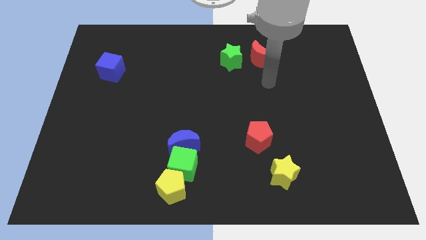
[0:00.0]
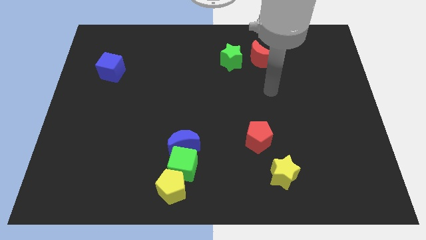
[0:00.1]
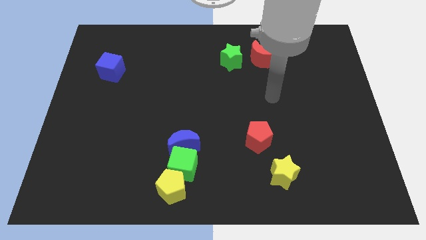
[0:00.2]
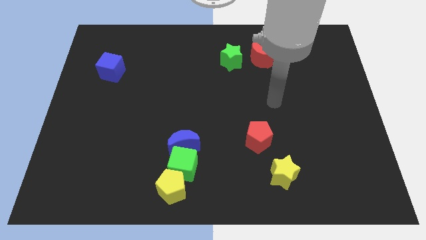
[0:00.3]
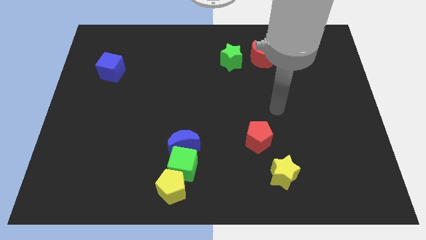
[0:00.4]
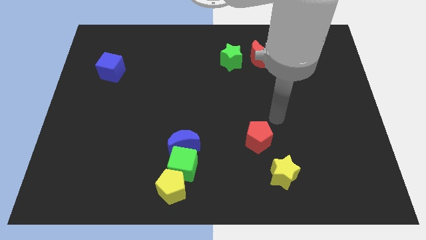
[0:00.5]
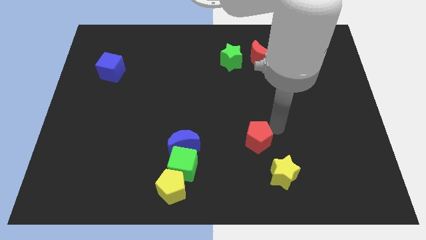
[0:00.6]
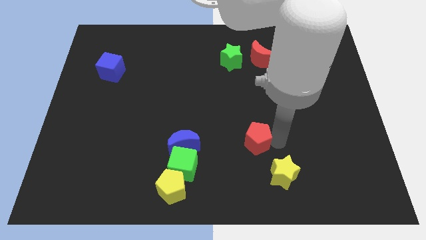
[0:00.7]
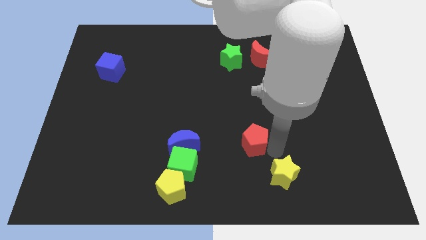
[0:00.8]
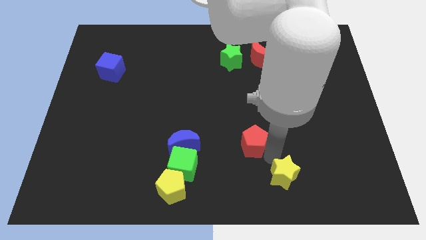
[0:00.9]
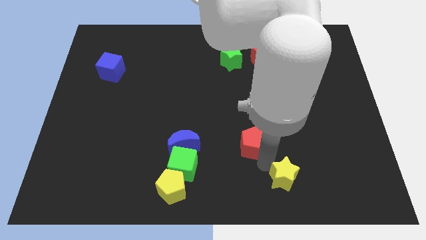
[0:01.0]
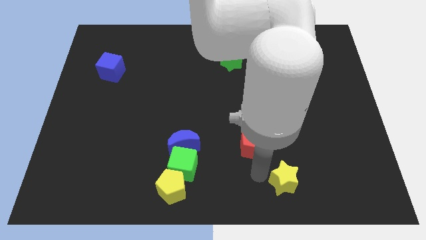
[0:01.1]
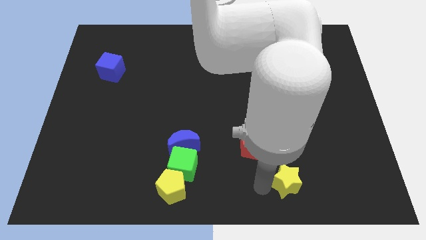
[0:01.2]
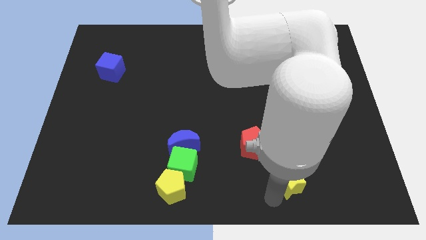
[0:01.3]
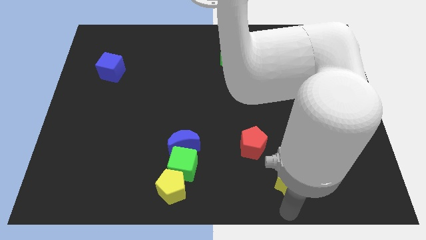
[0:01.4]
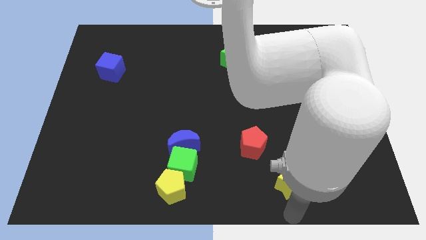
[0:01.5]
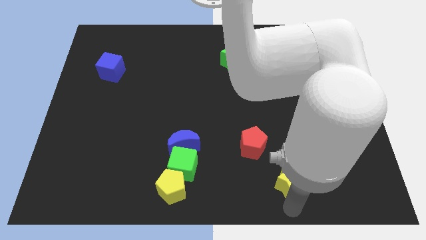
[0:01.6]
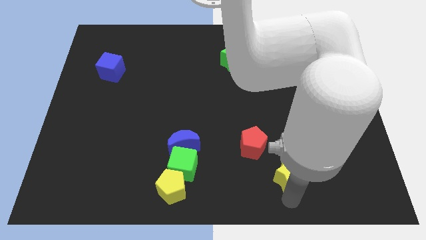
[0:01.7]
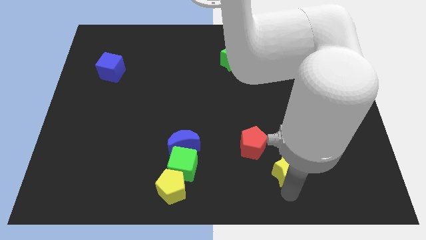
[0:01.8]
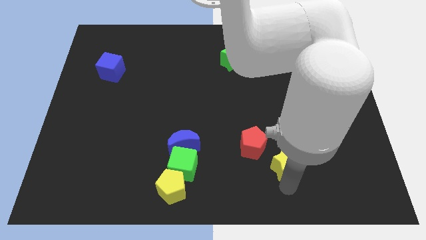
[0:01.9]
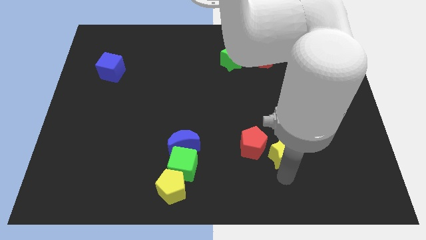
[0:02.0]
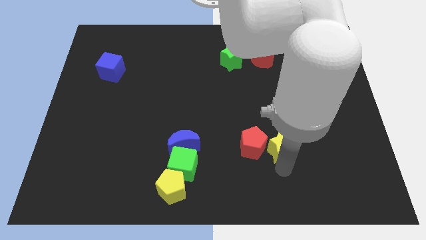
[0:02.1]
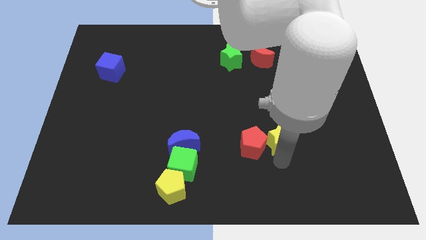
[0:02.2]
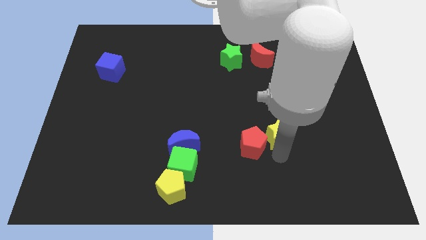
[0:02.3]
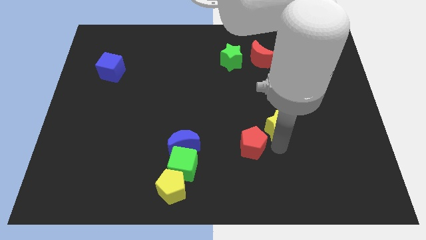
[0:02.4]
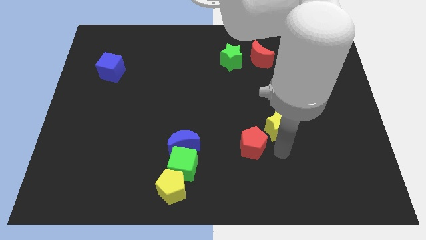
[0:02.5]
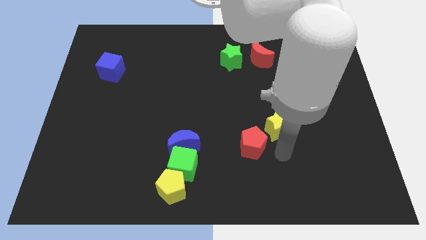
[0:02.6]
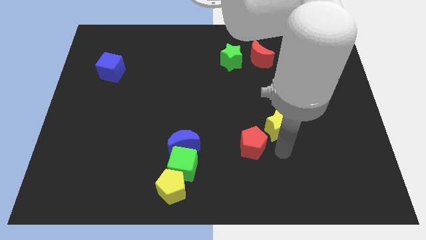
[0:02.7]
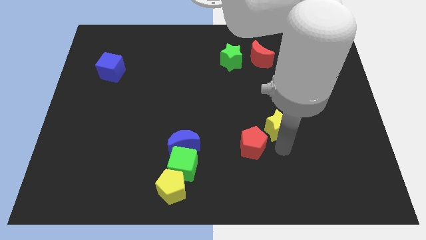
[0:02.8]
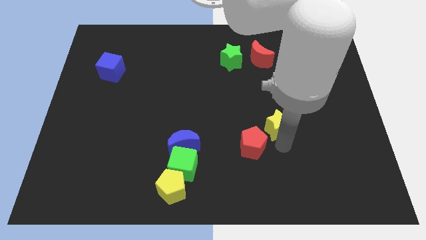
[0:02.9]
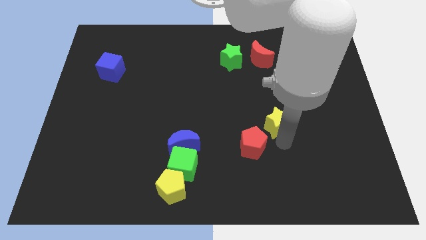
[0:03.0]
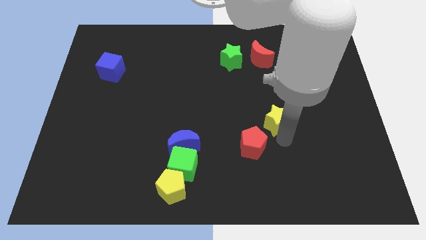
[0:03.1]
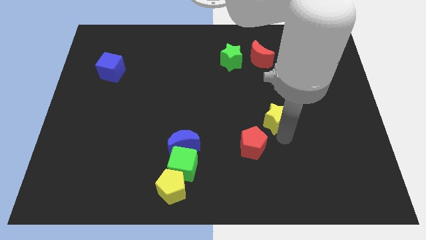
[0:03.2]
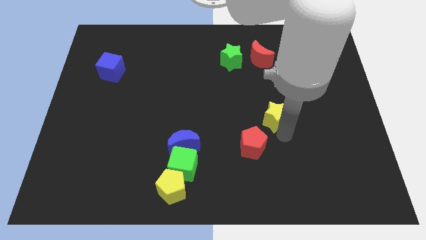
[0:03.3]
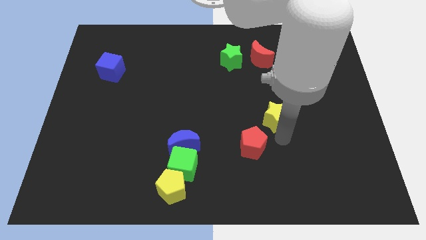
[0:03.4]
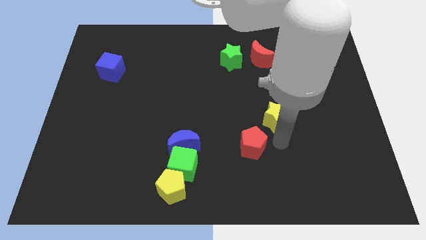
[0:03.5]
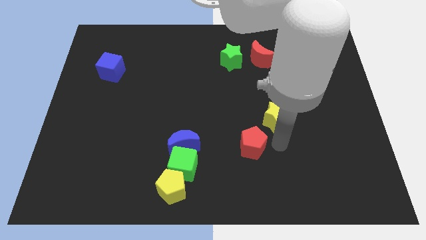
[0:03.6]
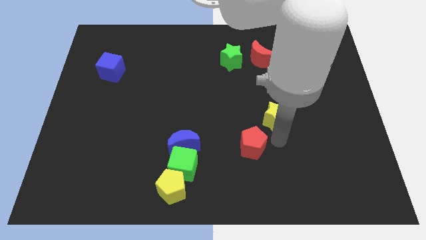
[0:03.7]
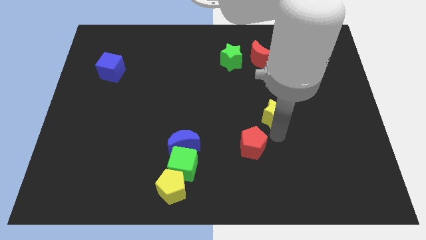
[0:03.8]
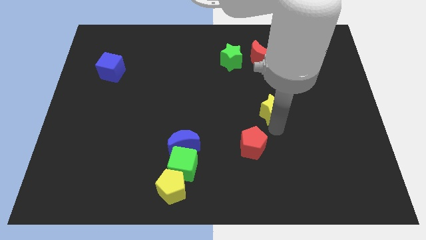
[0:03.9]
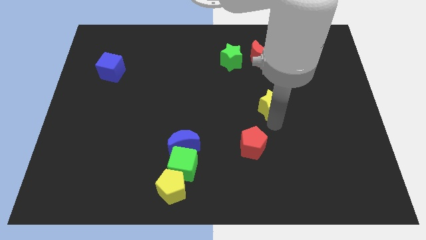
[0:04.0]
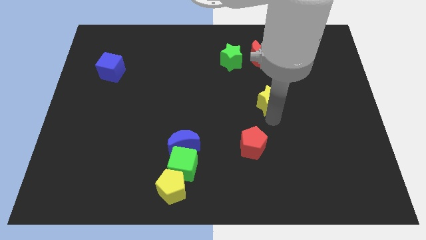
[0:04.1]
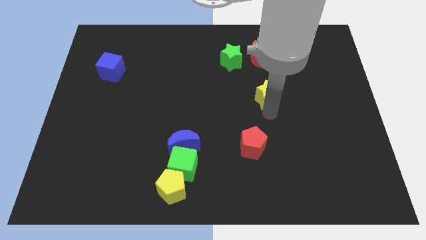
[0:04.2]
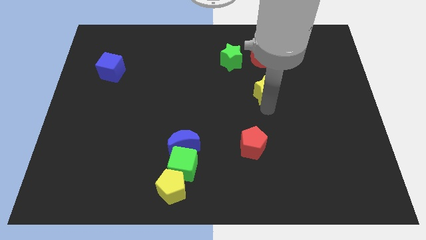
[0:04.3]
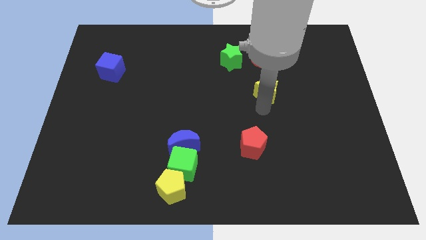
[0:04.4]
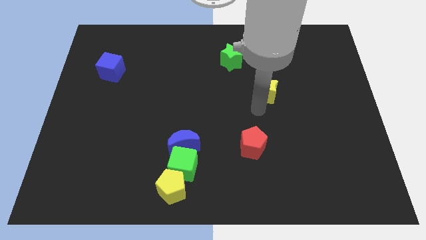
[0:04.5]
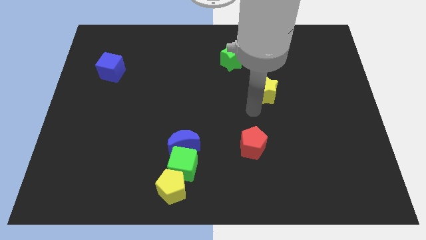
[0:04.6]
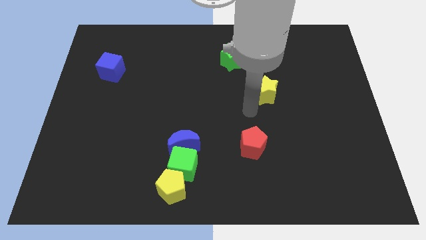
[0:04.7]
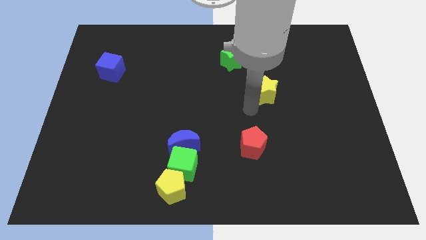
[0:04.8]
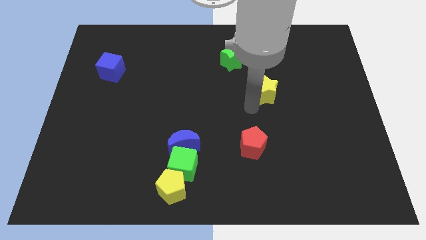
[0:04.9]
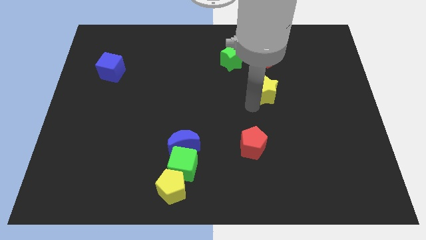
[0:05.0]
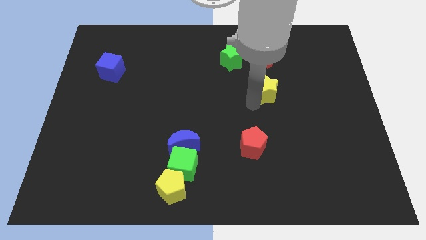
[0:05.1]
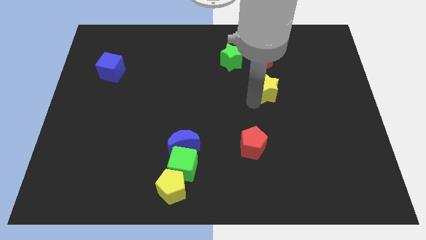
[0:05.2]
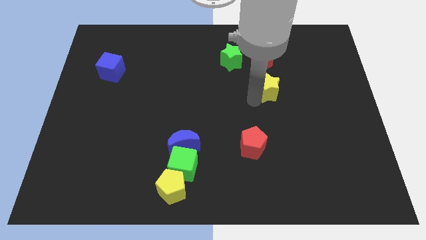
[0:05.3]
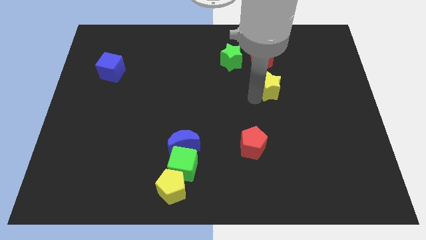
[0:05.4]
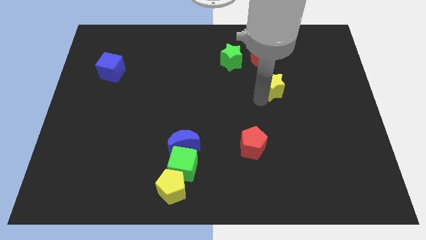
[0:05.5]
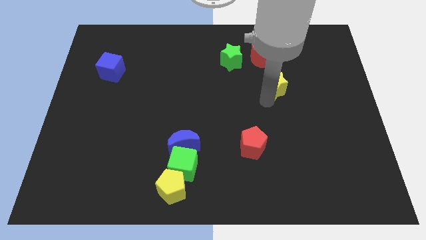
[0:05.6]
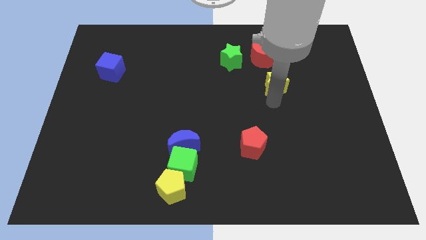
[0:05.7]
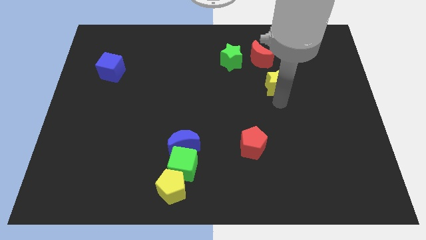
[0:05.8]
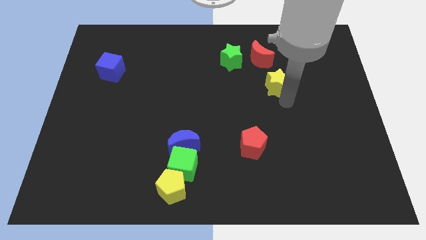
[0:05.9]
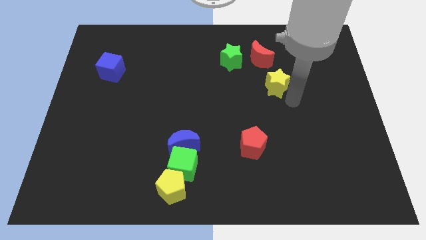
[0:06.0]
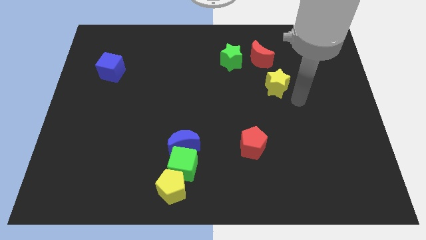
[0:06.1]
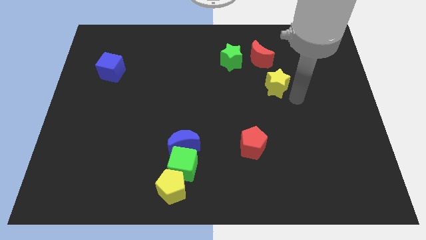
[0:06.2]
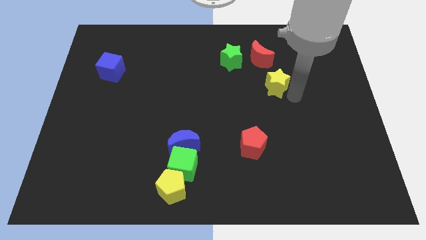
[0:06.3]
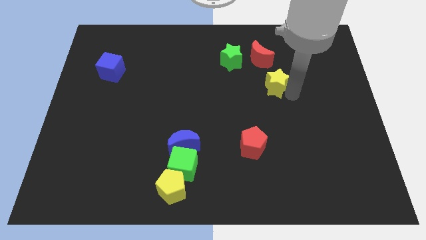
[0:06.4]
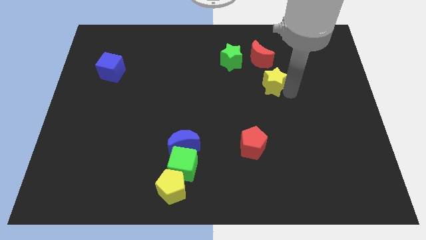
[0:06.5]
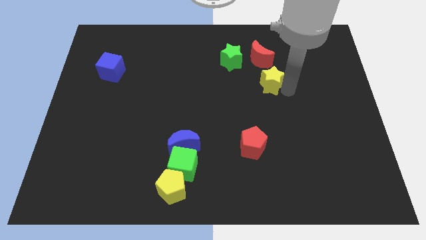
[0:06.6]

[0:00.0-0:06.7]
slide the yellow star to the bottom right side of the green star

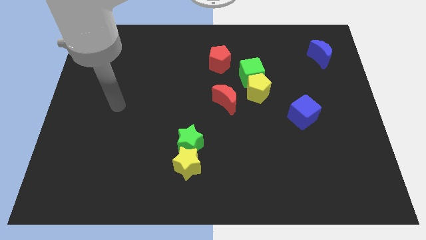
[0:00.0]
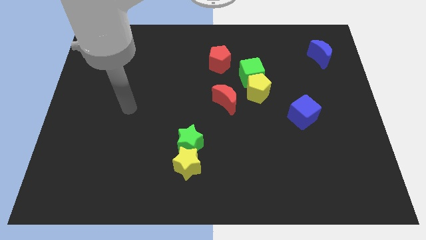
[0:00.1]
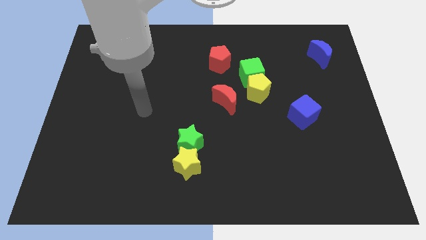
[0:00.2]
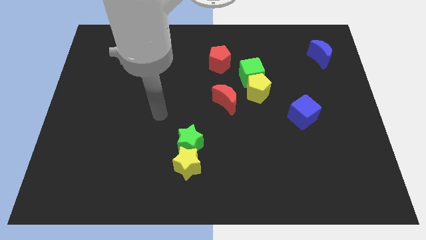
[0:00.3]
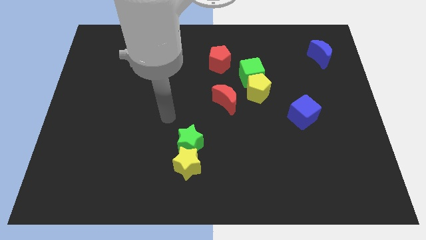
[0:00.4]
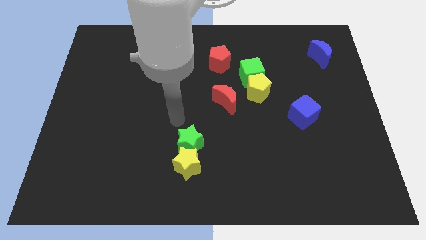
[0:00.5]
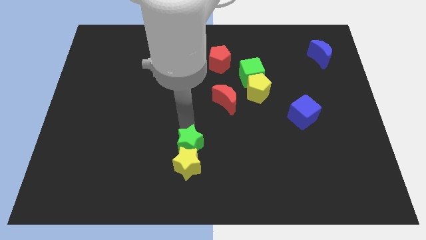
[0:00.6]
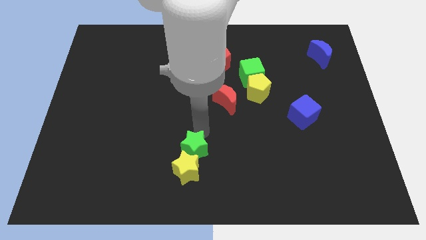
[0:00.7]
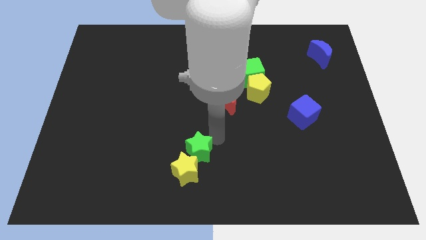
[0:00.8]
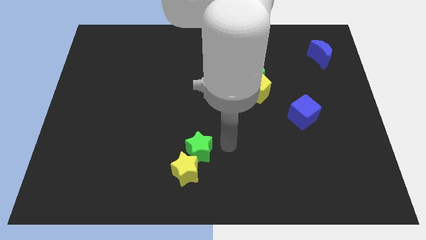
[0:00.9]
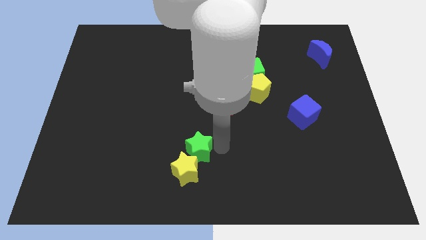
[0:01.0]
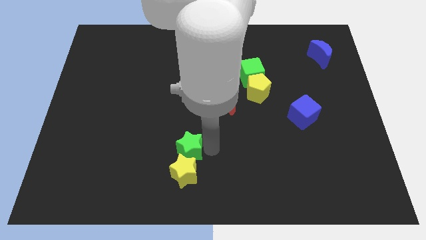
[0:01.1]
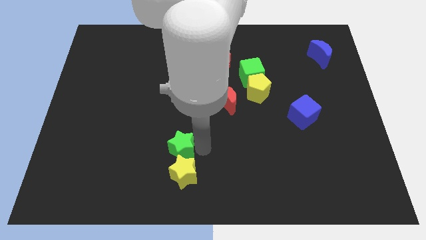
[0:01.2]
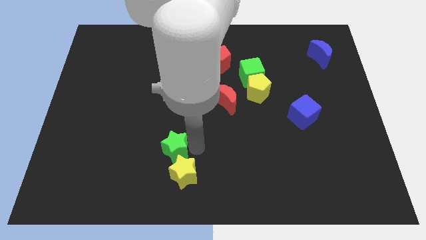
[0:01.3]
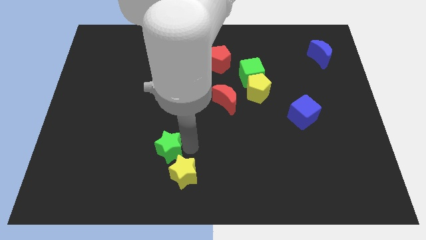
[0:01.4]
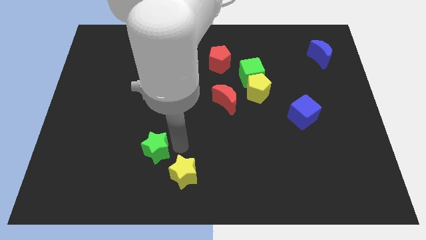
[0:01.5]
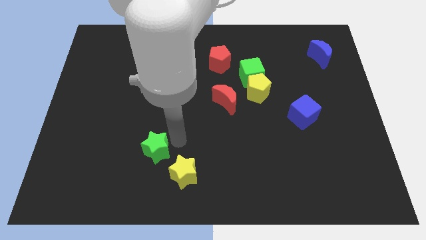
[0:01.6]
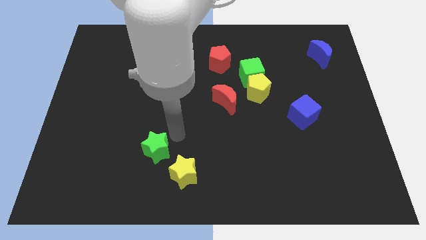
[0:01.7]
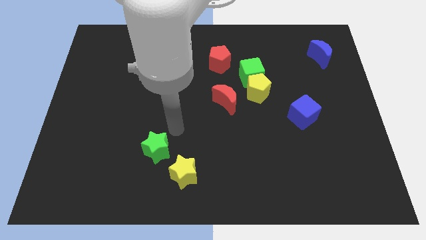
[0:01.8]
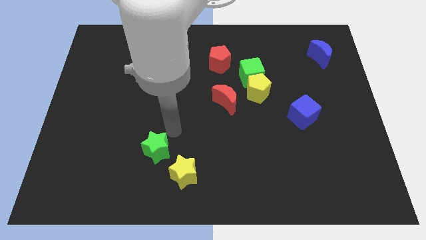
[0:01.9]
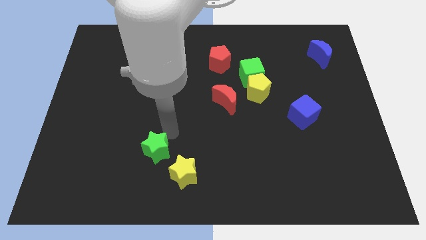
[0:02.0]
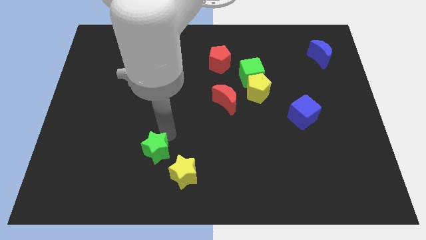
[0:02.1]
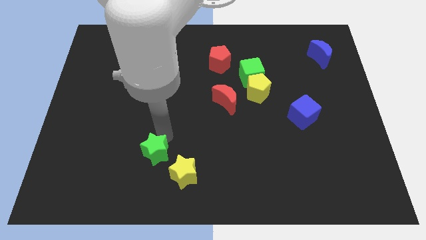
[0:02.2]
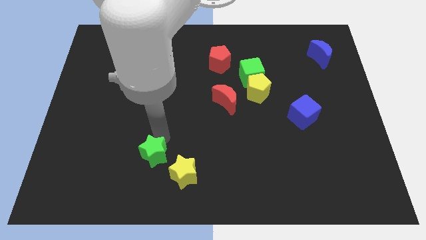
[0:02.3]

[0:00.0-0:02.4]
move the green star left of the yellow star
